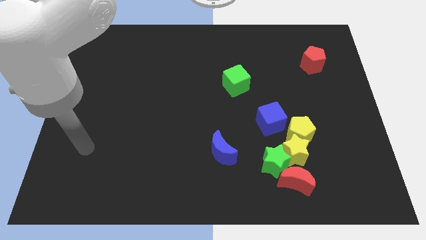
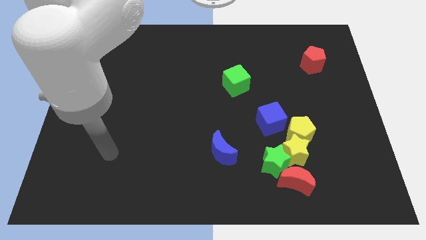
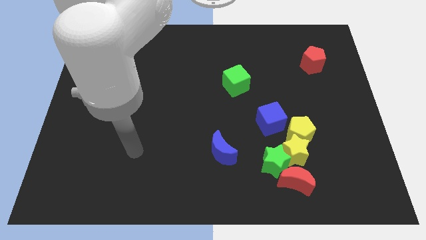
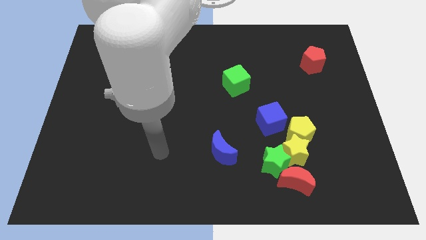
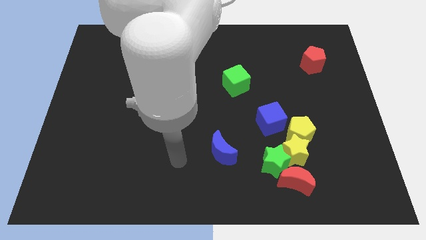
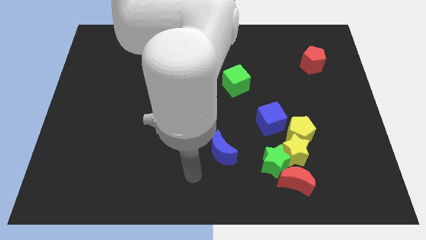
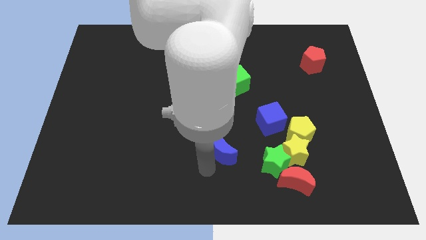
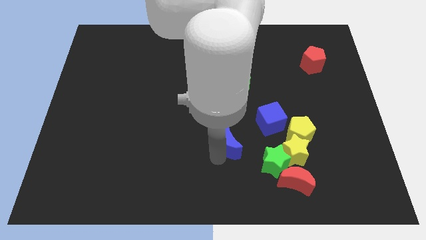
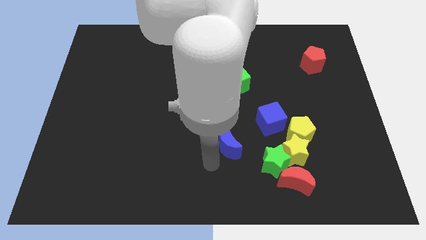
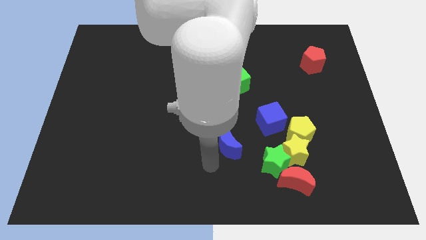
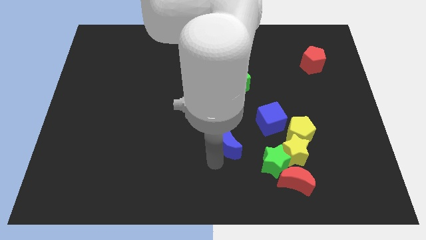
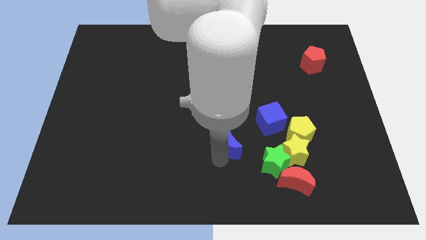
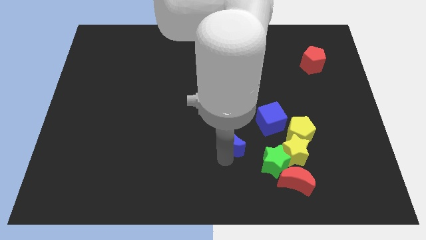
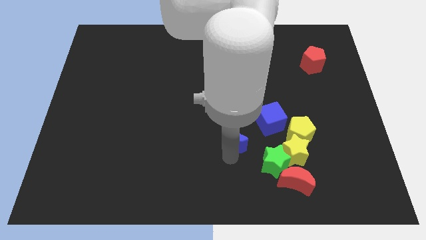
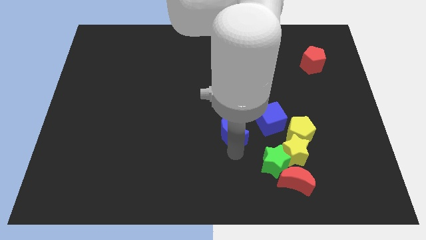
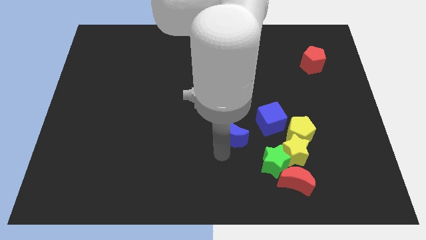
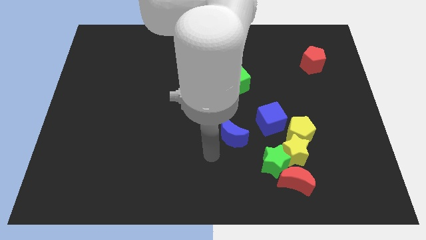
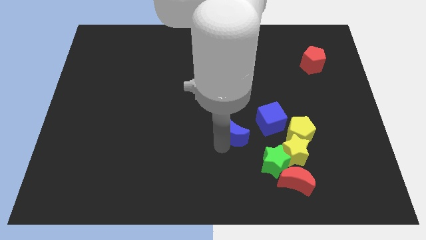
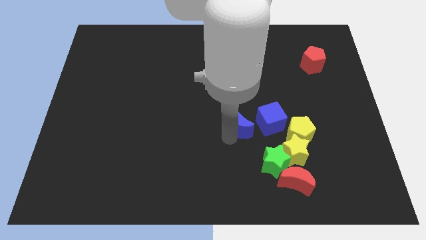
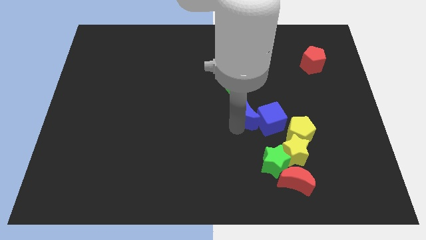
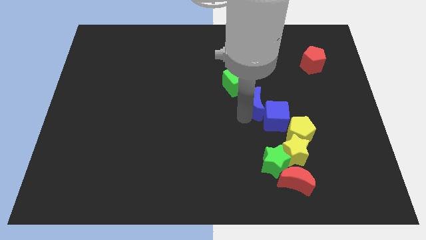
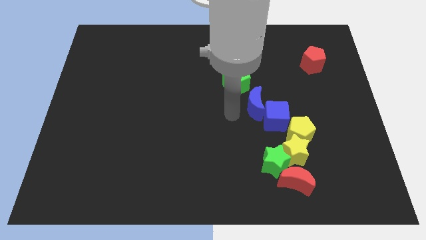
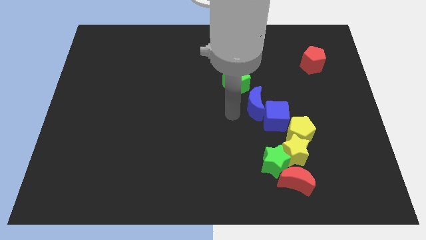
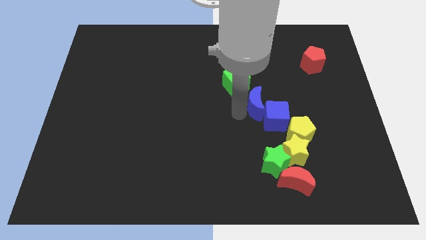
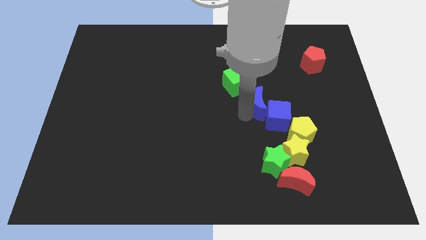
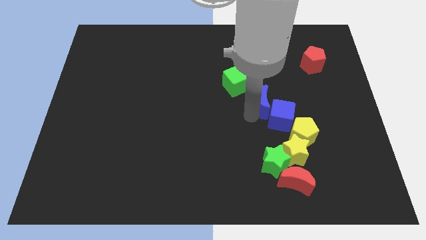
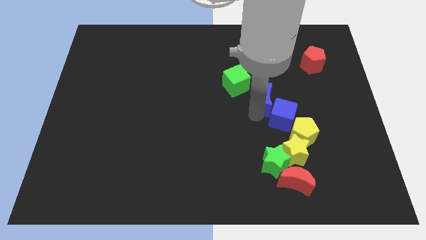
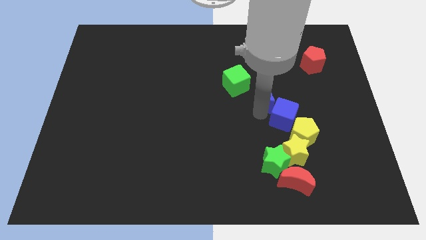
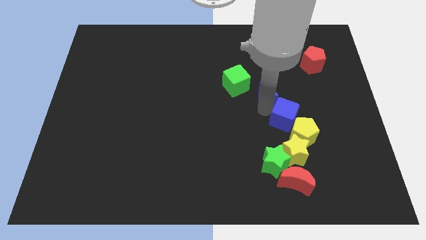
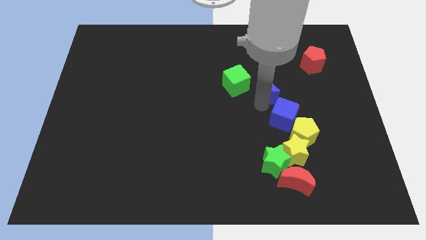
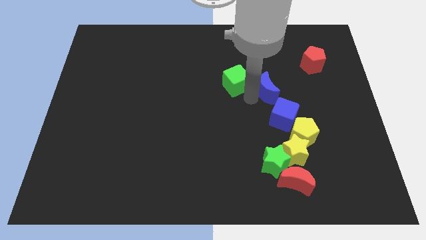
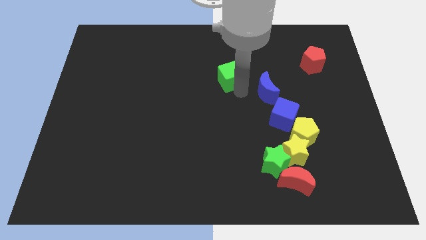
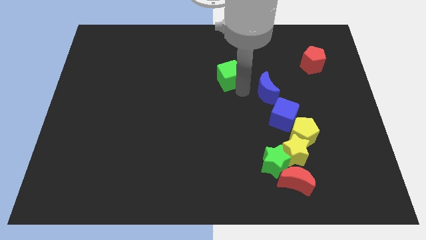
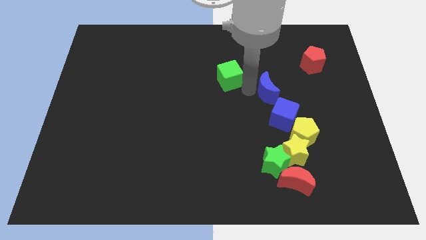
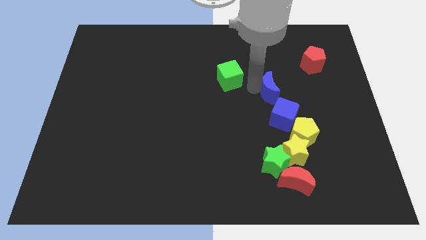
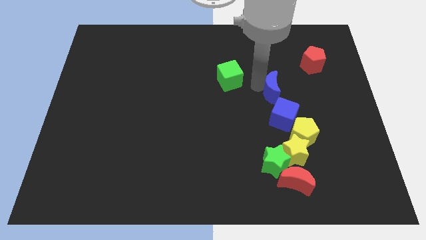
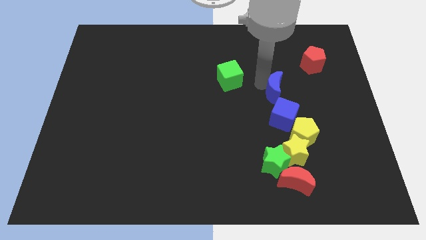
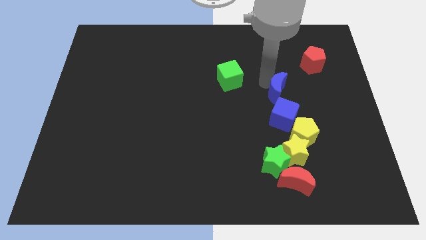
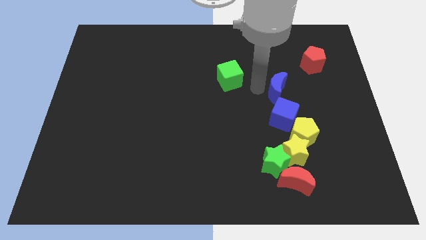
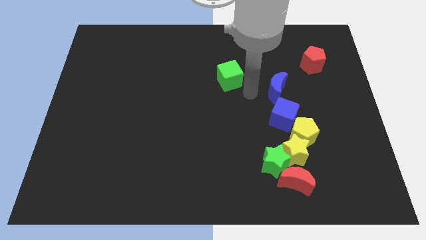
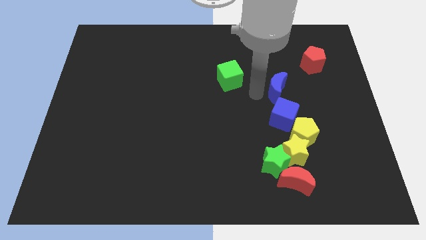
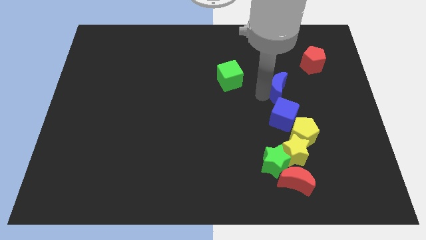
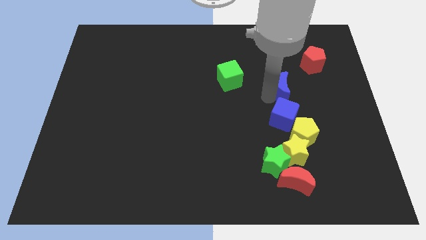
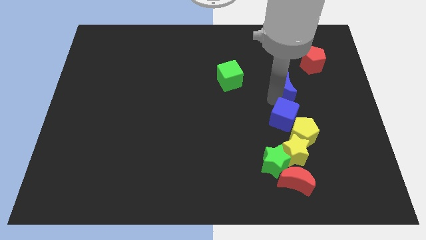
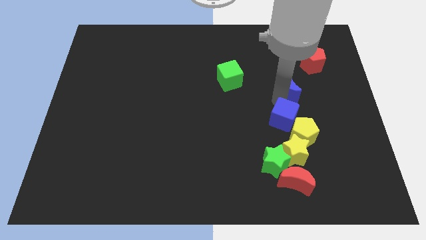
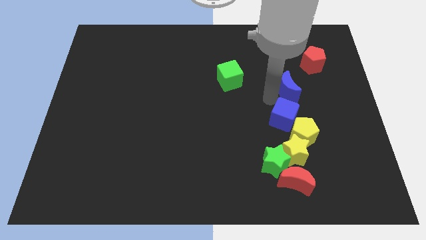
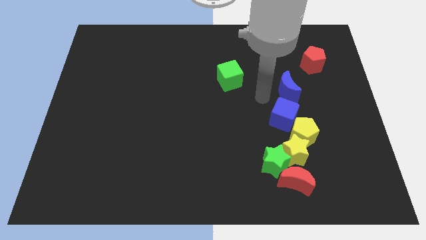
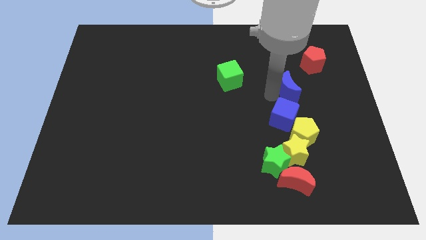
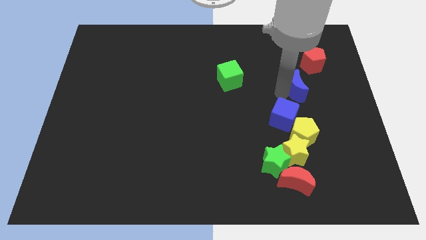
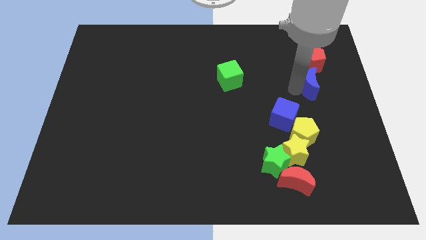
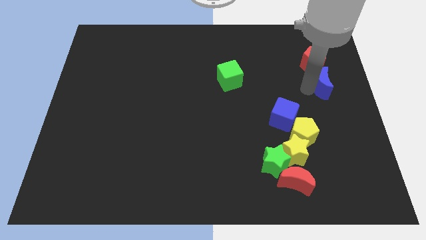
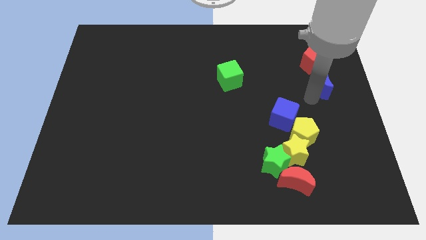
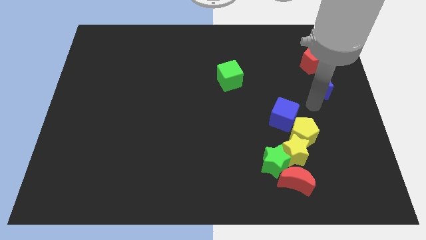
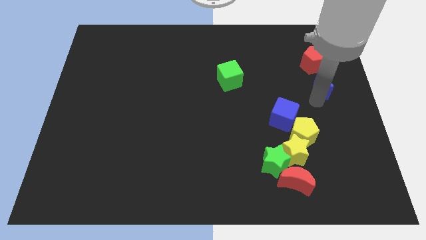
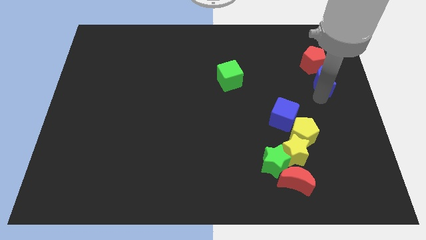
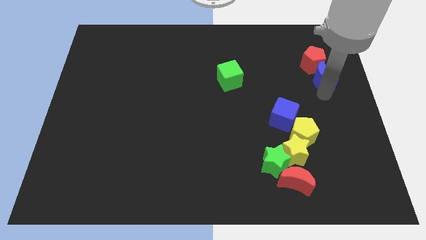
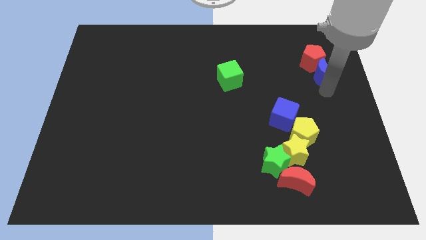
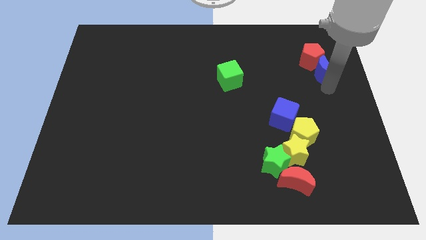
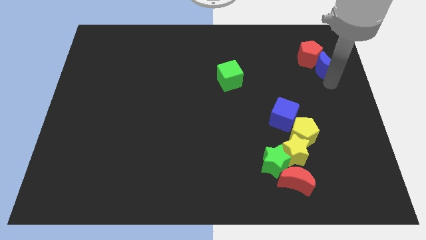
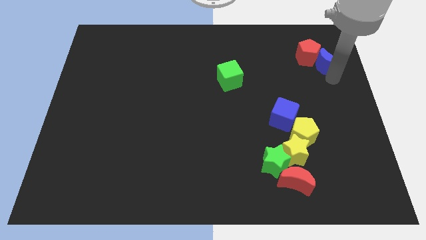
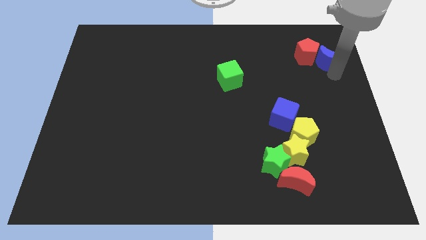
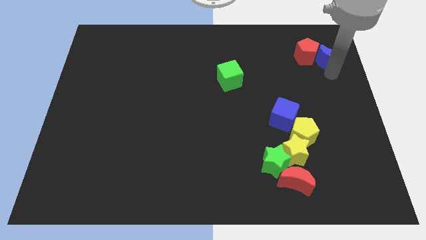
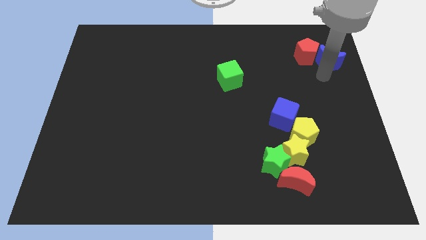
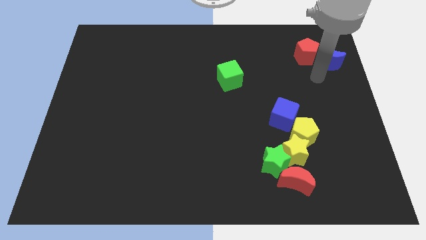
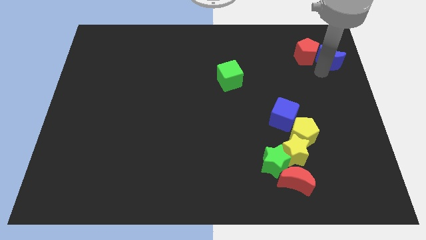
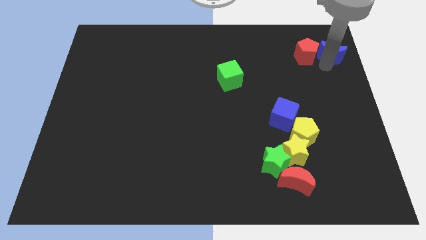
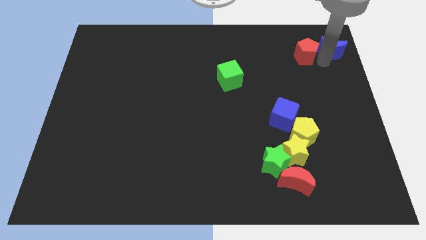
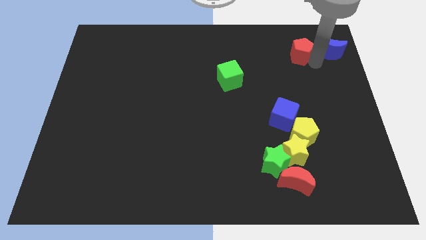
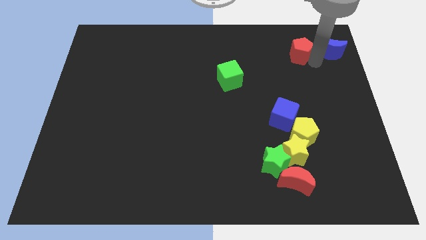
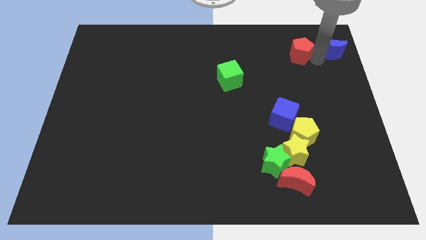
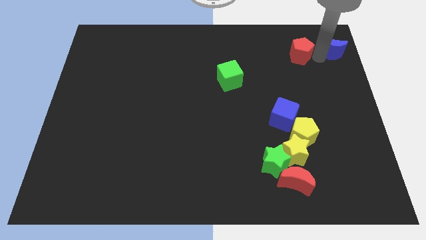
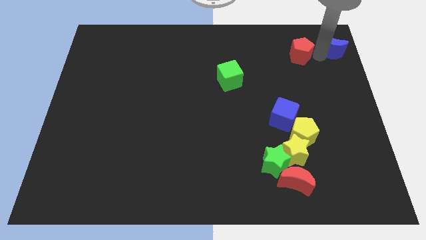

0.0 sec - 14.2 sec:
push the blue moon to the upper right corner
